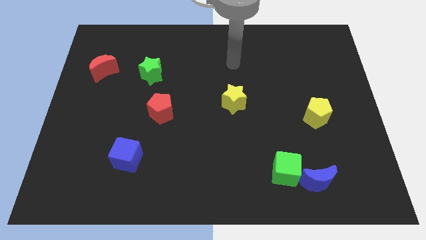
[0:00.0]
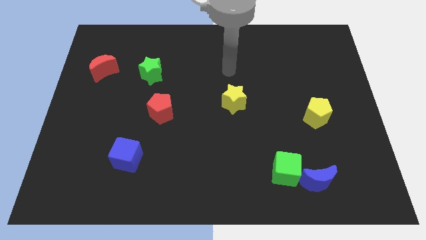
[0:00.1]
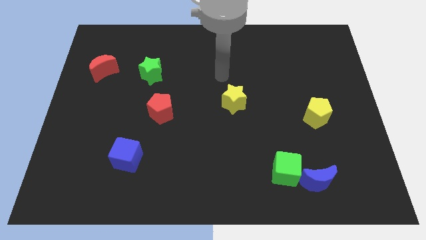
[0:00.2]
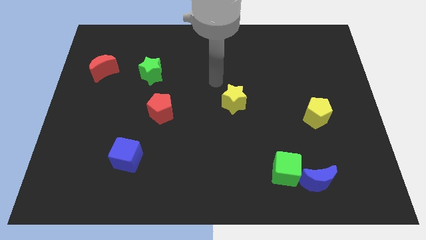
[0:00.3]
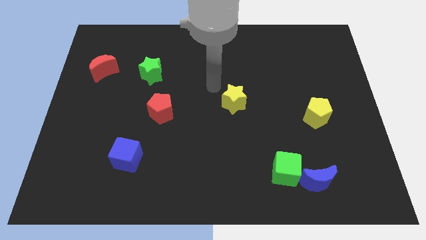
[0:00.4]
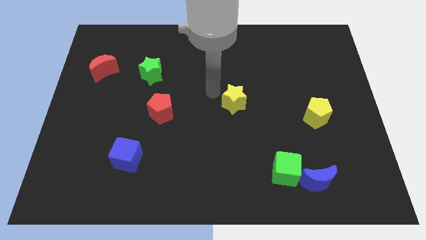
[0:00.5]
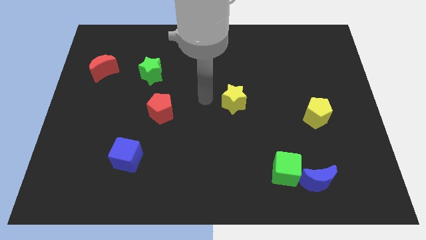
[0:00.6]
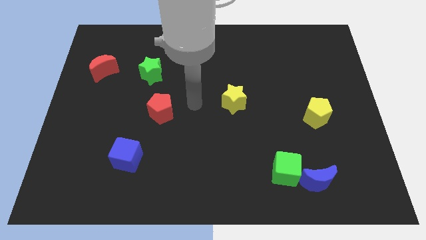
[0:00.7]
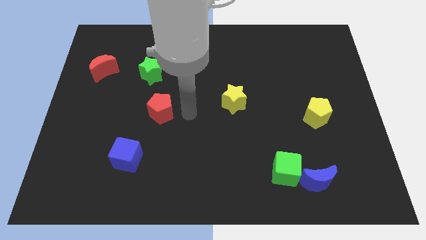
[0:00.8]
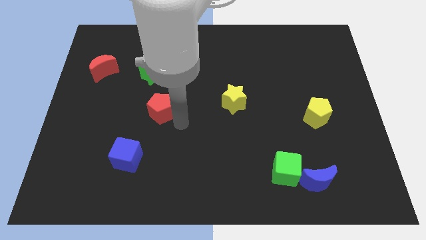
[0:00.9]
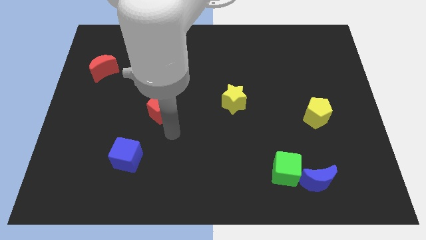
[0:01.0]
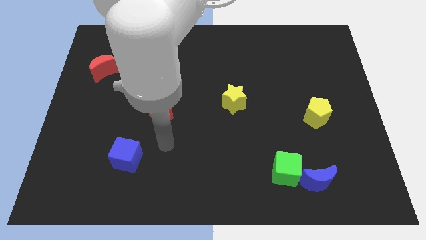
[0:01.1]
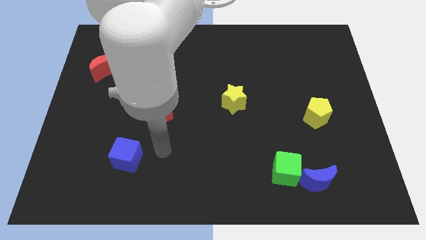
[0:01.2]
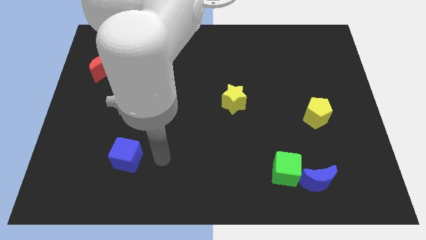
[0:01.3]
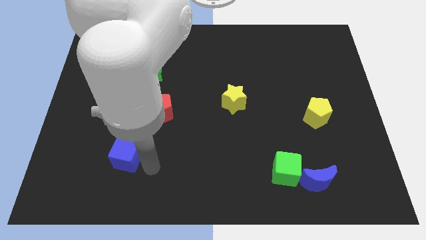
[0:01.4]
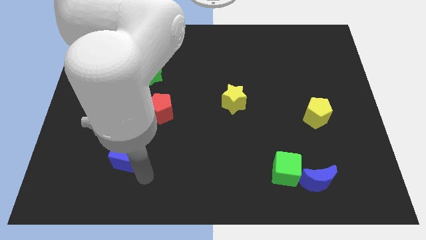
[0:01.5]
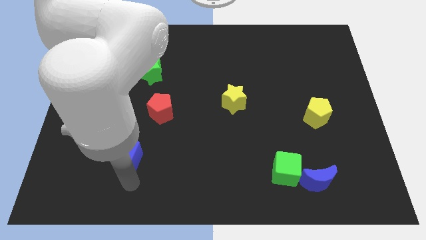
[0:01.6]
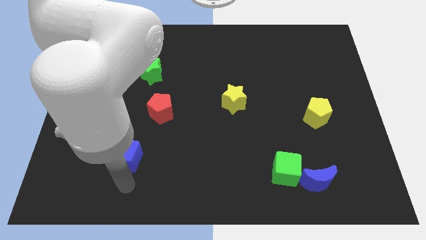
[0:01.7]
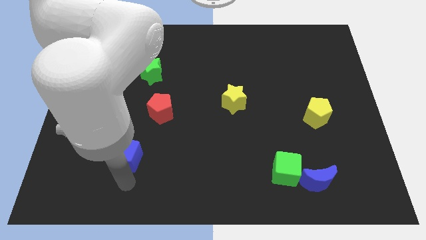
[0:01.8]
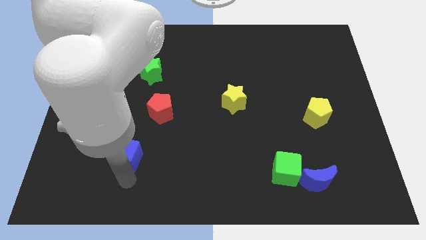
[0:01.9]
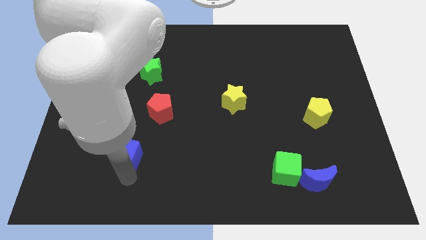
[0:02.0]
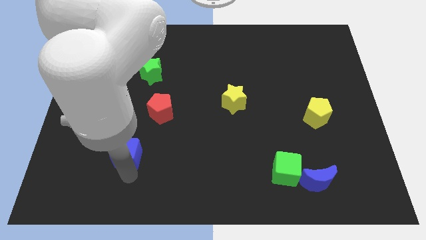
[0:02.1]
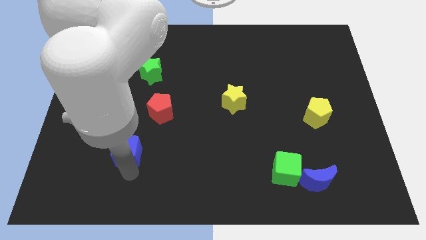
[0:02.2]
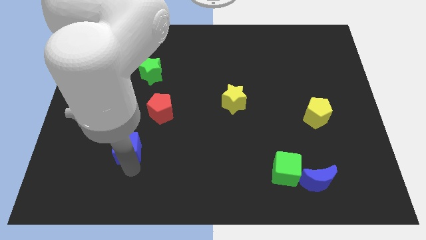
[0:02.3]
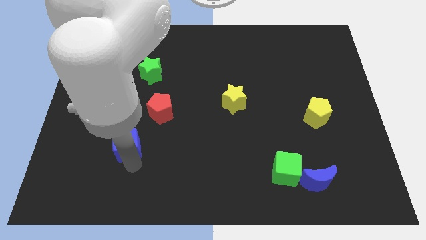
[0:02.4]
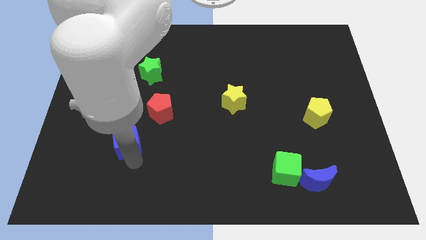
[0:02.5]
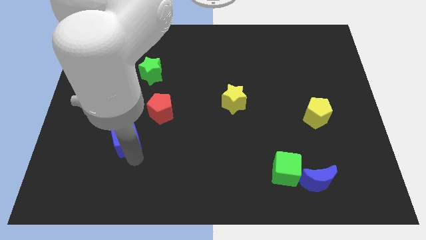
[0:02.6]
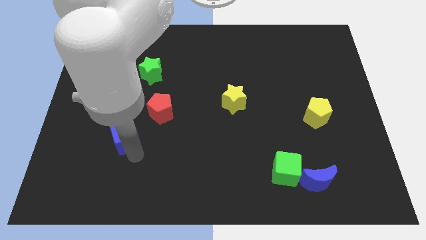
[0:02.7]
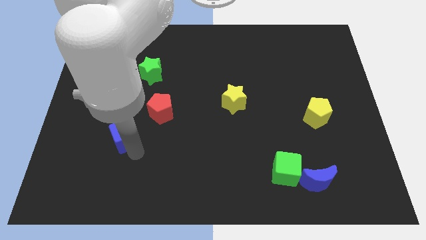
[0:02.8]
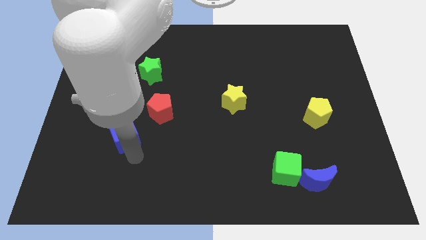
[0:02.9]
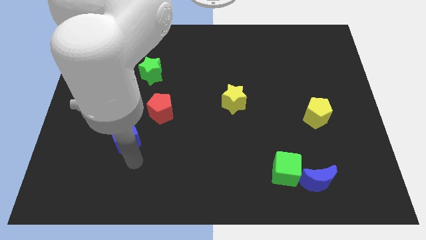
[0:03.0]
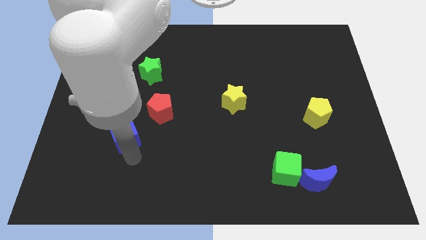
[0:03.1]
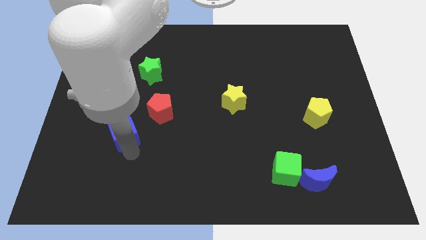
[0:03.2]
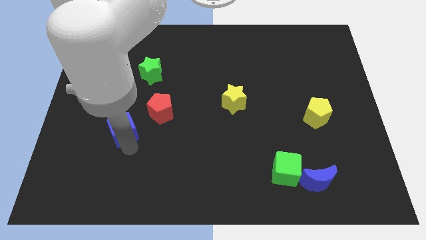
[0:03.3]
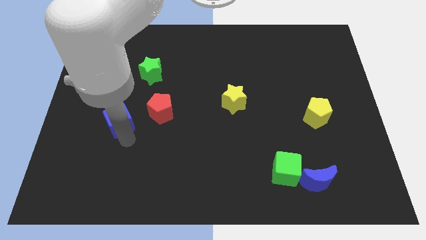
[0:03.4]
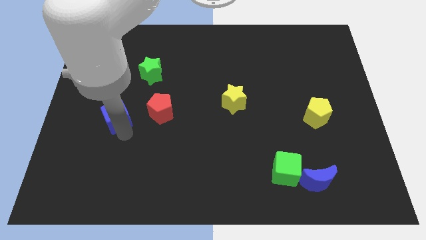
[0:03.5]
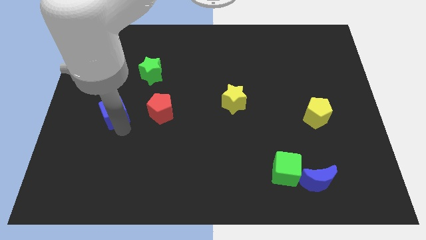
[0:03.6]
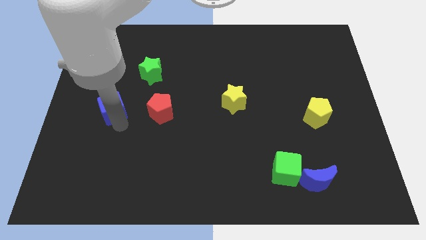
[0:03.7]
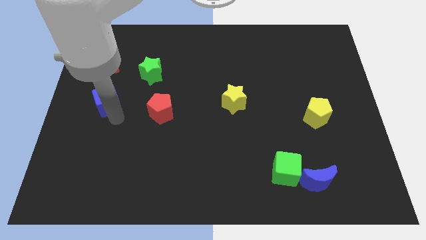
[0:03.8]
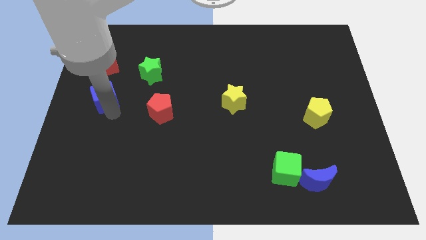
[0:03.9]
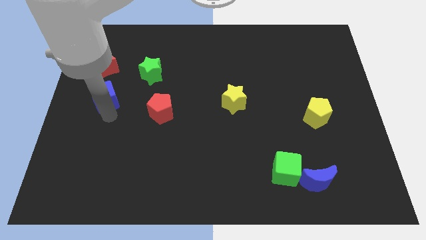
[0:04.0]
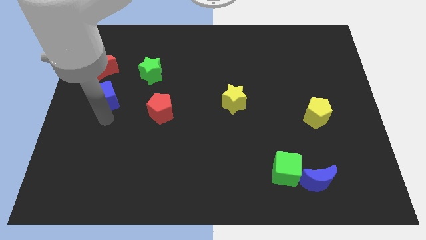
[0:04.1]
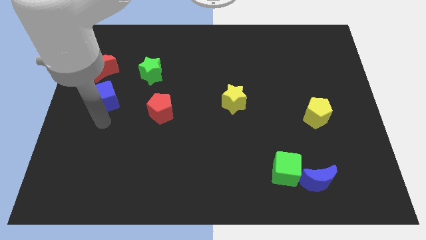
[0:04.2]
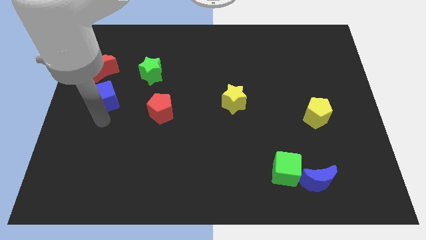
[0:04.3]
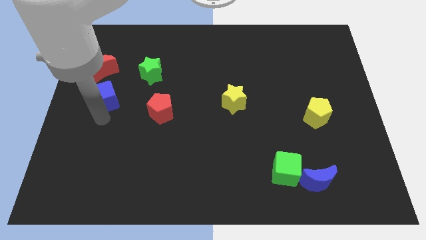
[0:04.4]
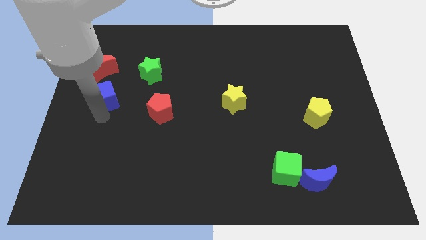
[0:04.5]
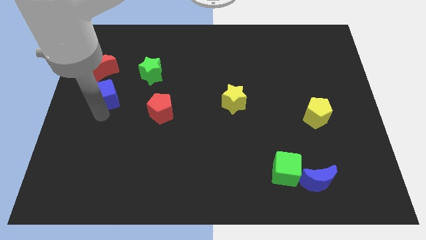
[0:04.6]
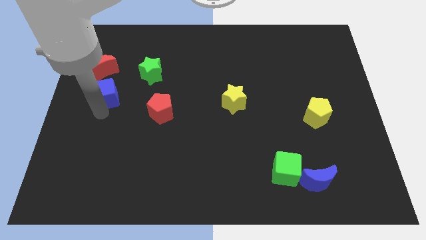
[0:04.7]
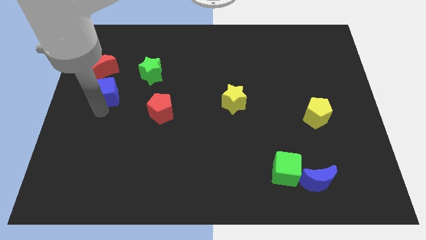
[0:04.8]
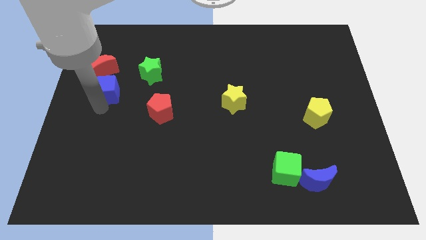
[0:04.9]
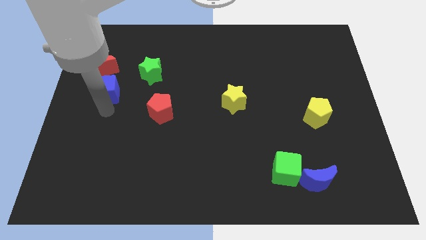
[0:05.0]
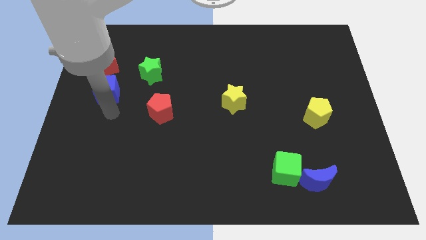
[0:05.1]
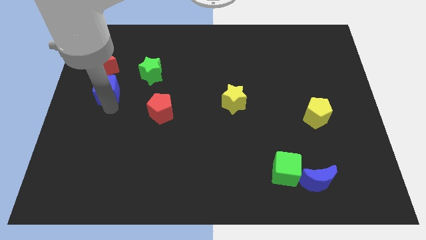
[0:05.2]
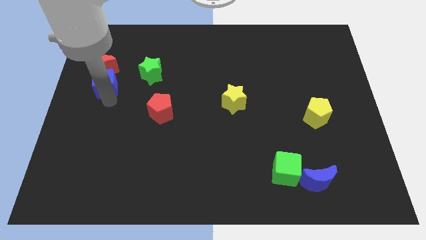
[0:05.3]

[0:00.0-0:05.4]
push the blue cube to the red moon

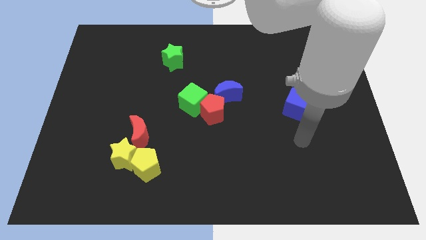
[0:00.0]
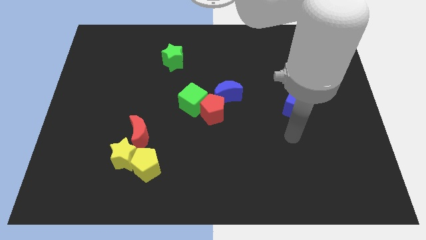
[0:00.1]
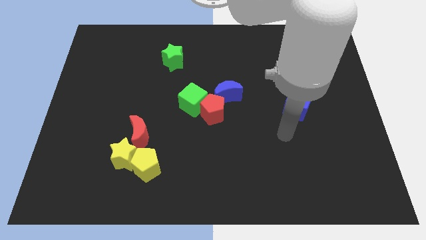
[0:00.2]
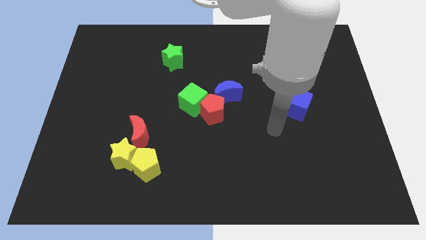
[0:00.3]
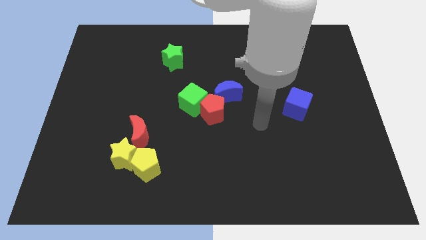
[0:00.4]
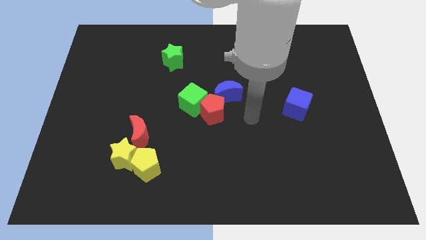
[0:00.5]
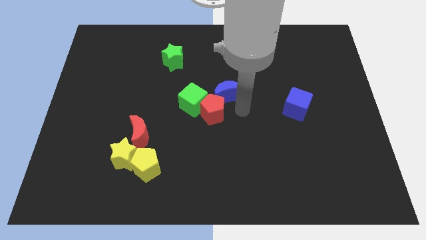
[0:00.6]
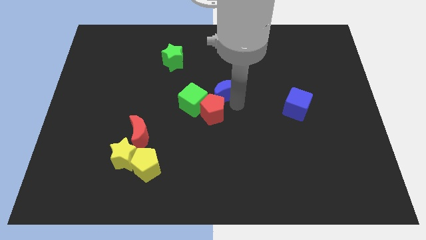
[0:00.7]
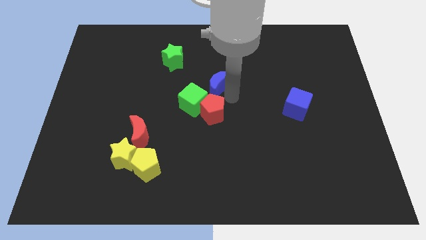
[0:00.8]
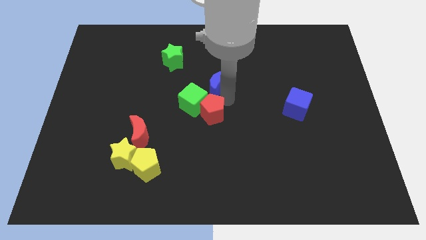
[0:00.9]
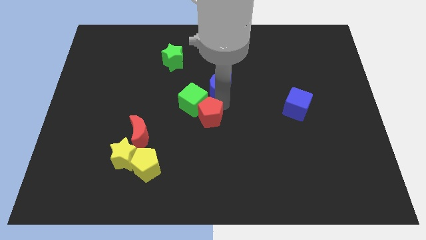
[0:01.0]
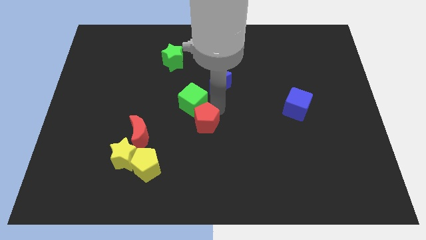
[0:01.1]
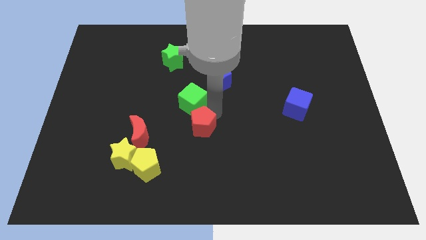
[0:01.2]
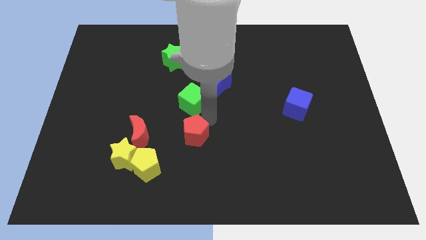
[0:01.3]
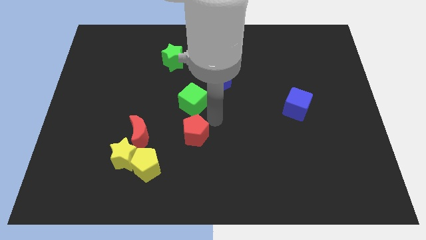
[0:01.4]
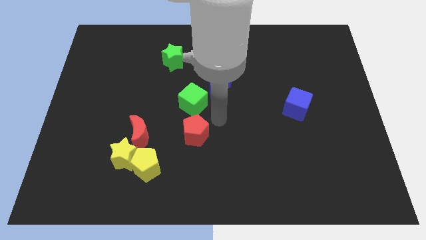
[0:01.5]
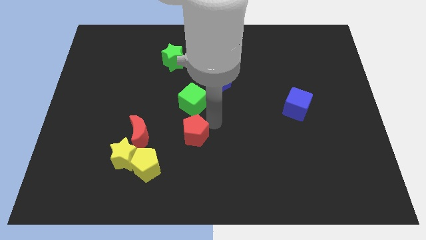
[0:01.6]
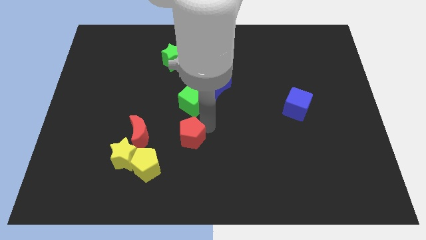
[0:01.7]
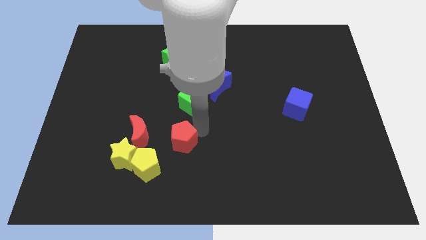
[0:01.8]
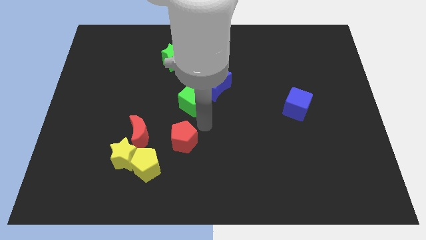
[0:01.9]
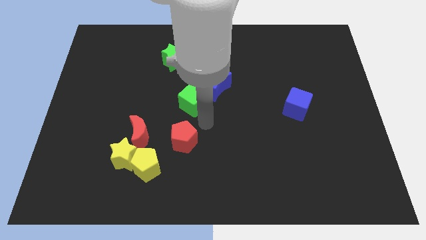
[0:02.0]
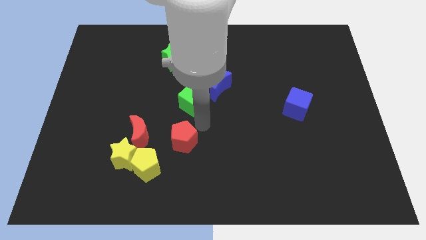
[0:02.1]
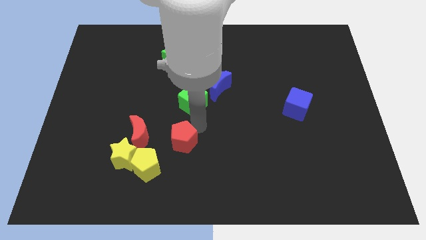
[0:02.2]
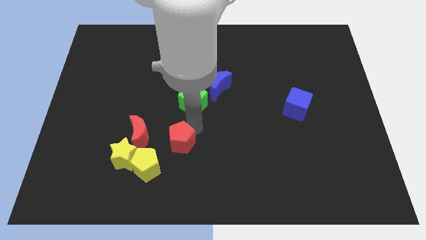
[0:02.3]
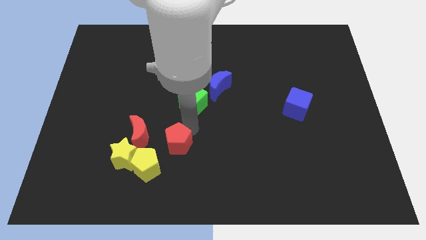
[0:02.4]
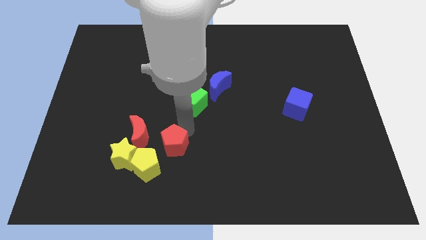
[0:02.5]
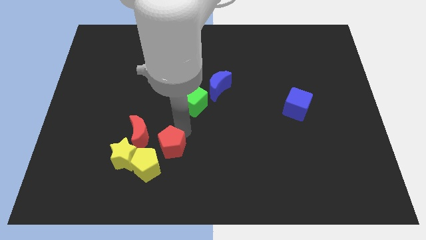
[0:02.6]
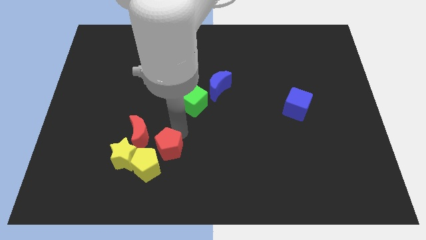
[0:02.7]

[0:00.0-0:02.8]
slide the red pentagon close to the yellow pentagon
